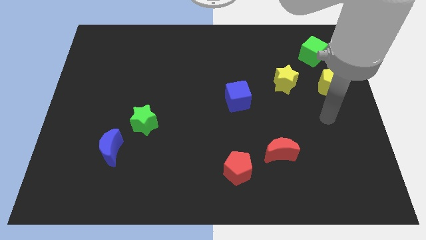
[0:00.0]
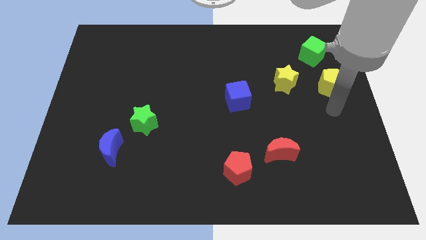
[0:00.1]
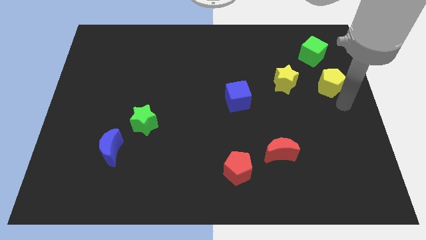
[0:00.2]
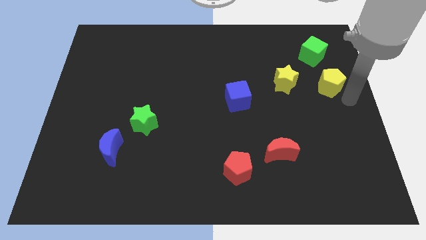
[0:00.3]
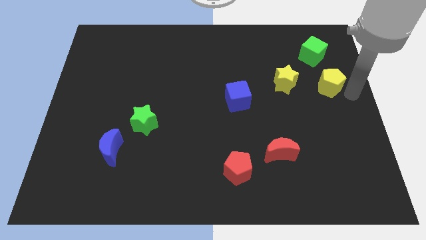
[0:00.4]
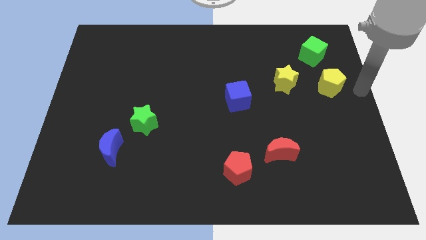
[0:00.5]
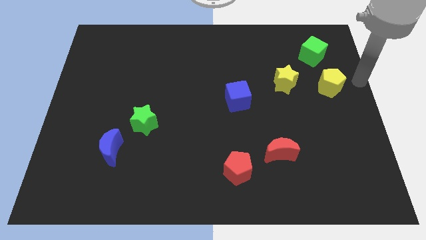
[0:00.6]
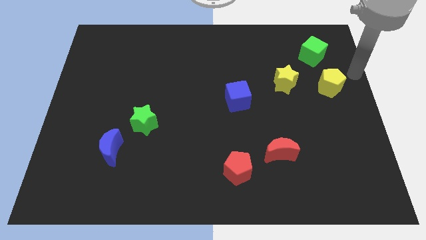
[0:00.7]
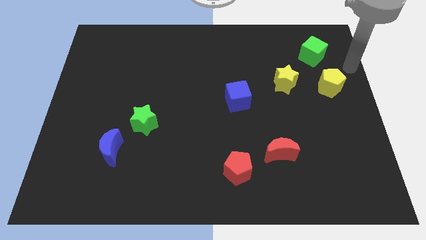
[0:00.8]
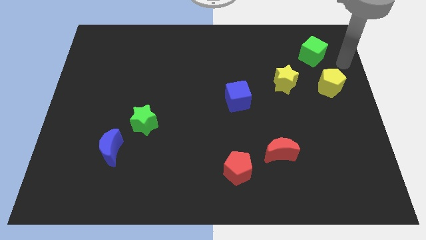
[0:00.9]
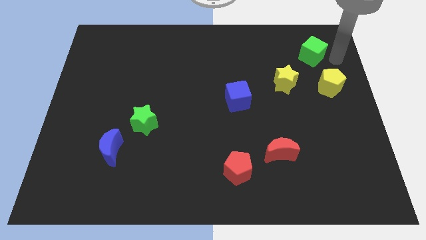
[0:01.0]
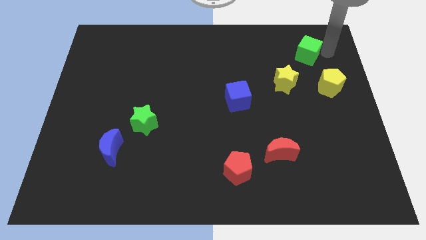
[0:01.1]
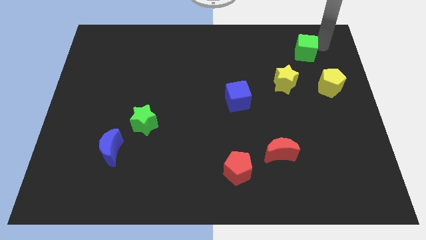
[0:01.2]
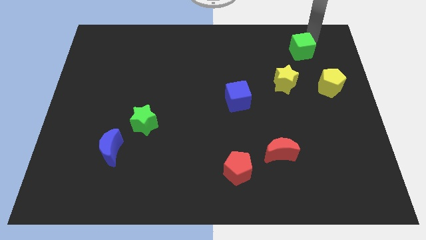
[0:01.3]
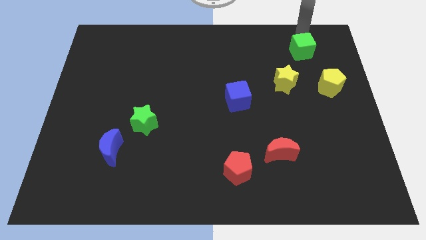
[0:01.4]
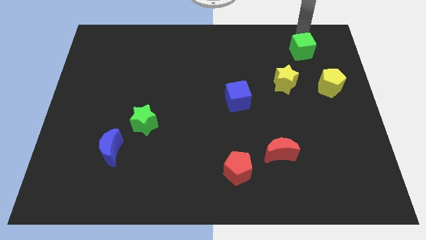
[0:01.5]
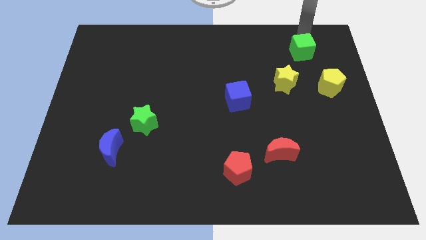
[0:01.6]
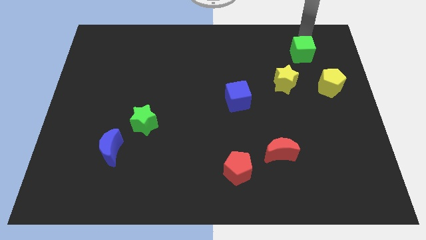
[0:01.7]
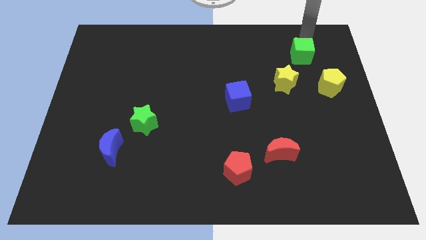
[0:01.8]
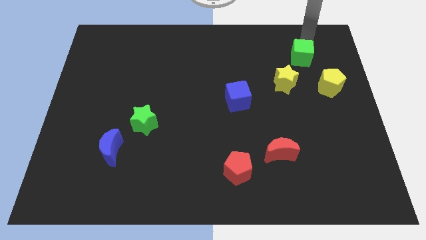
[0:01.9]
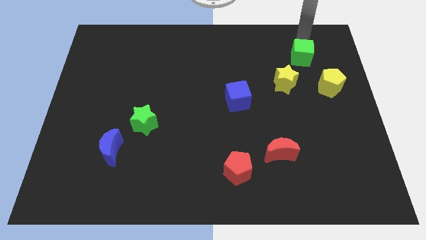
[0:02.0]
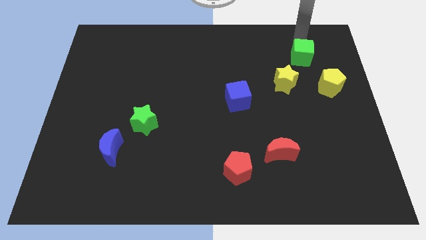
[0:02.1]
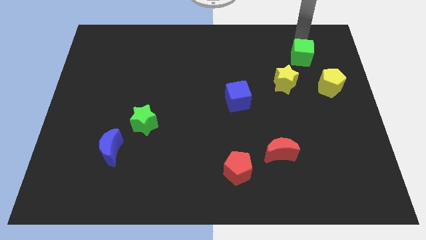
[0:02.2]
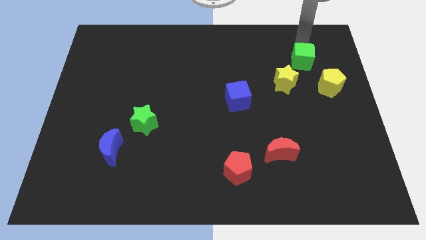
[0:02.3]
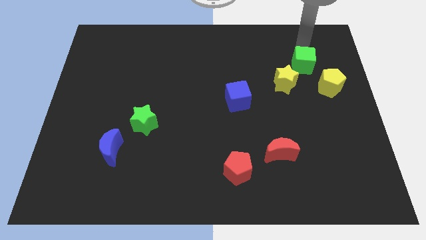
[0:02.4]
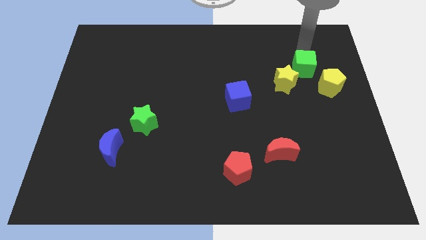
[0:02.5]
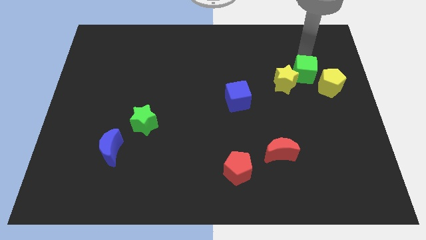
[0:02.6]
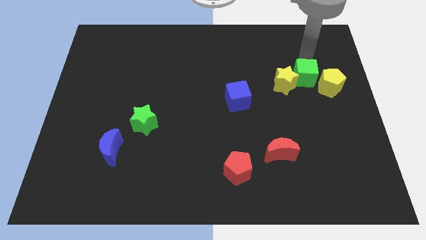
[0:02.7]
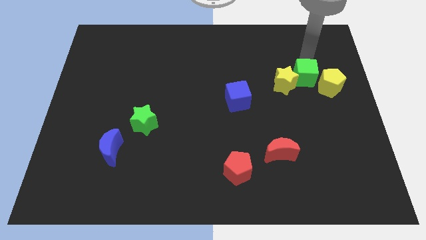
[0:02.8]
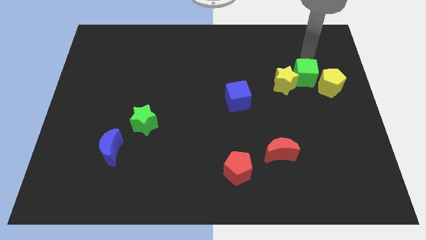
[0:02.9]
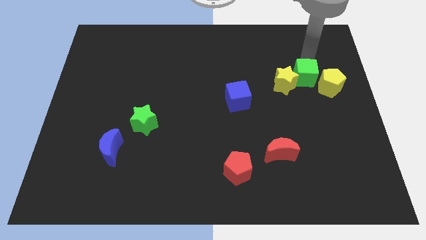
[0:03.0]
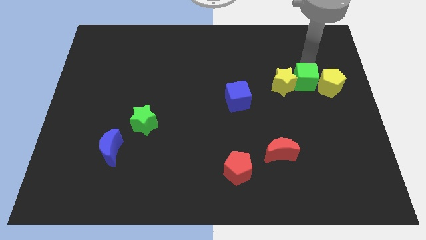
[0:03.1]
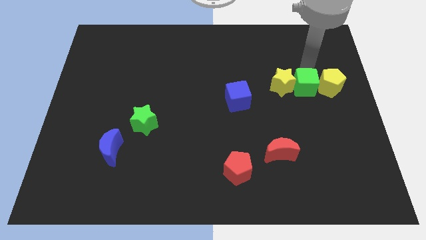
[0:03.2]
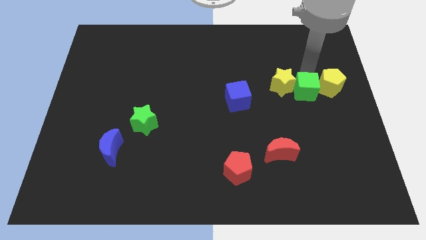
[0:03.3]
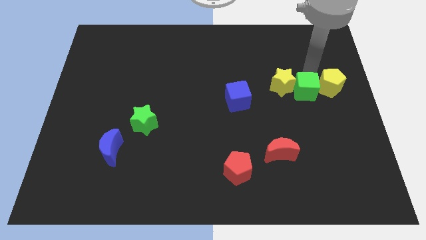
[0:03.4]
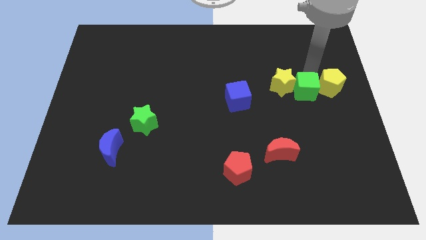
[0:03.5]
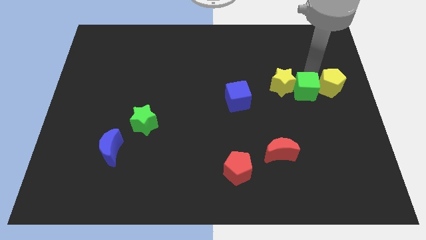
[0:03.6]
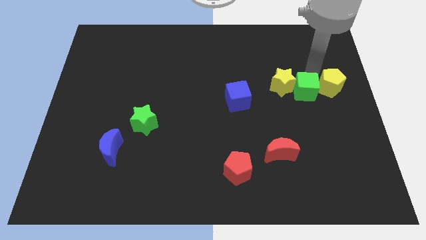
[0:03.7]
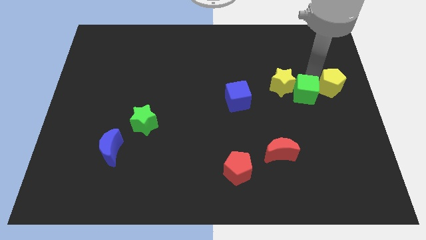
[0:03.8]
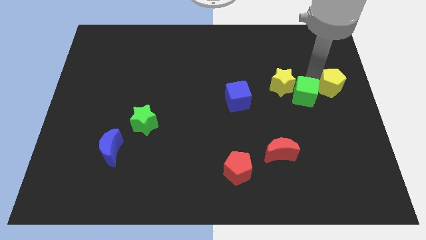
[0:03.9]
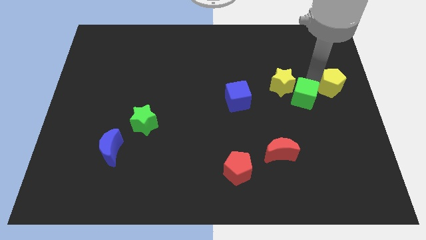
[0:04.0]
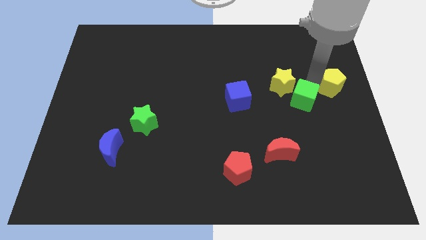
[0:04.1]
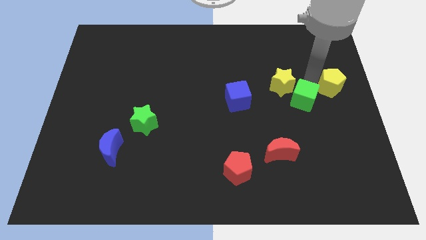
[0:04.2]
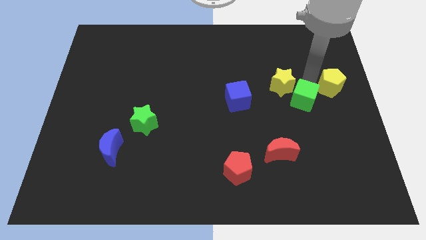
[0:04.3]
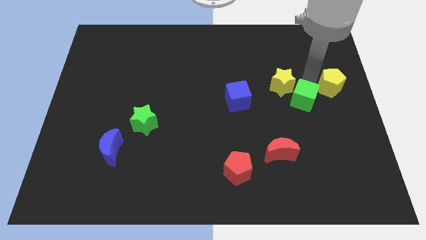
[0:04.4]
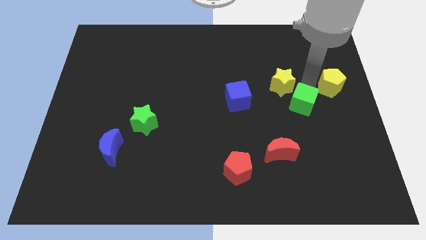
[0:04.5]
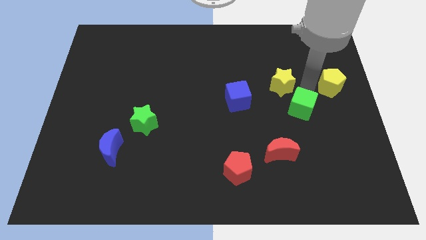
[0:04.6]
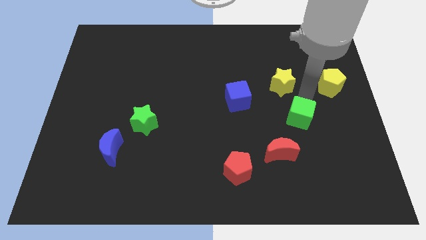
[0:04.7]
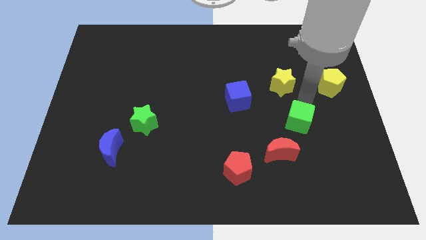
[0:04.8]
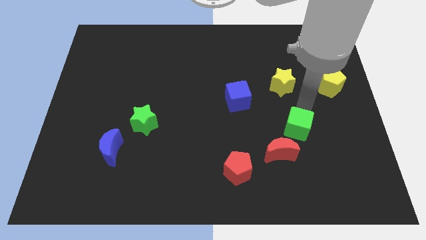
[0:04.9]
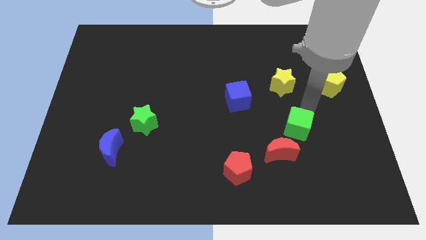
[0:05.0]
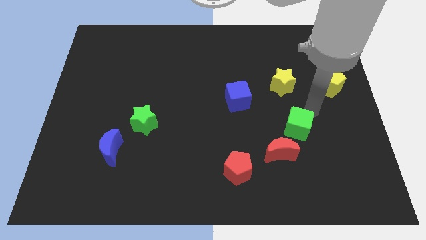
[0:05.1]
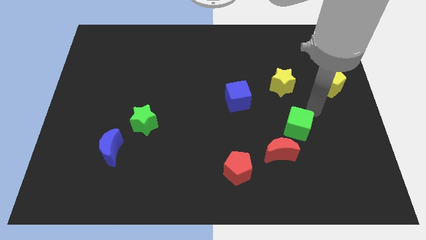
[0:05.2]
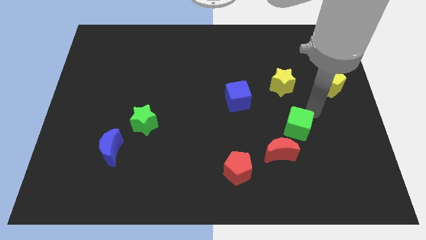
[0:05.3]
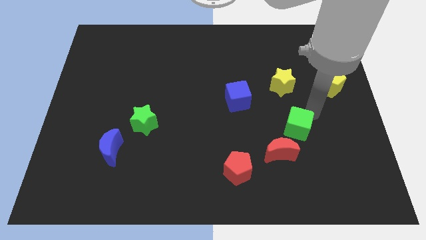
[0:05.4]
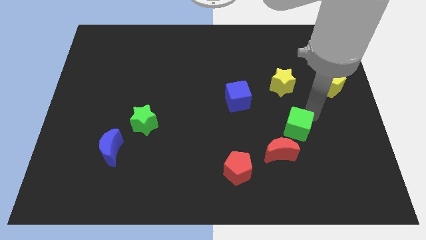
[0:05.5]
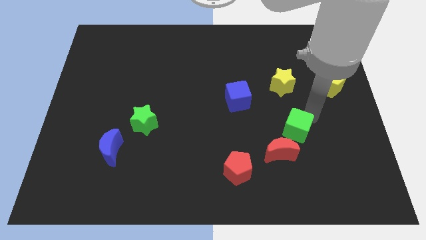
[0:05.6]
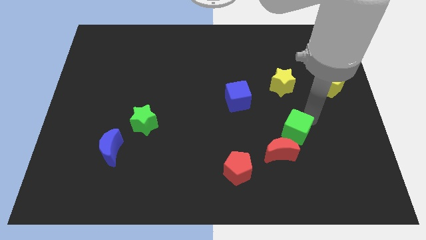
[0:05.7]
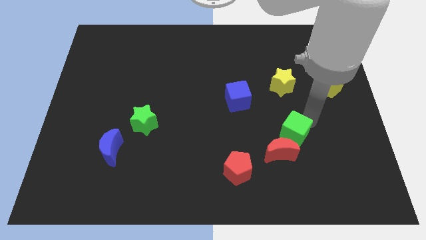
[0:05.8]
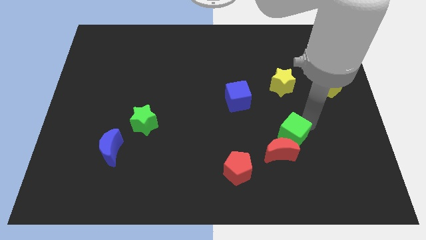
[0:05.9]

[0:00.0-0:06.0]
move the green cube close to the red moon

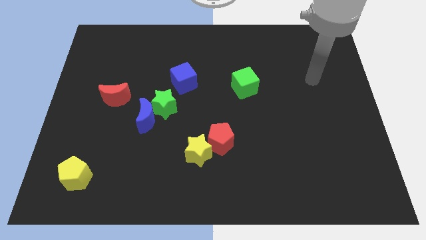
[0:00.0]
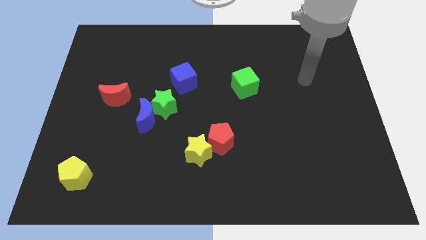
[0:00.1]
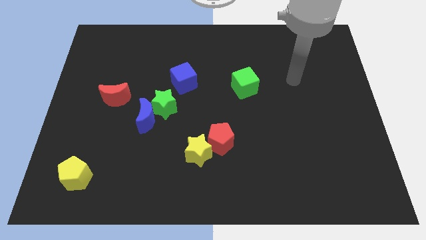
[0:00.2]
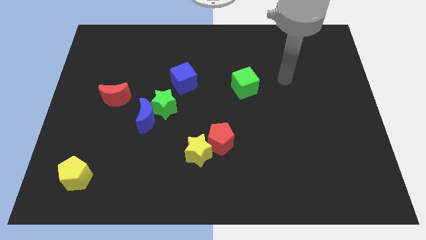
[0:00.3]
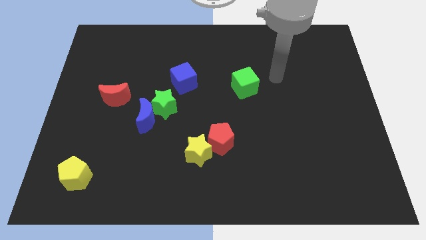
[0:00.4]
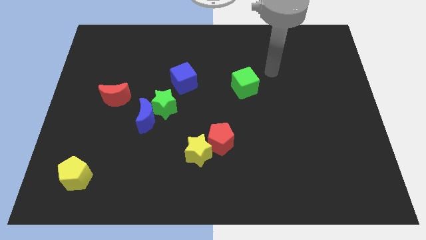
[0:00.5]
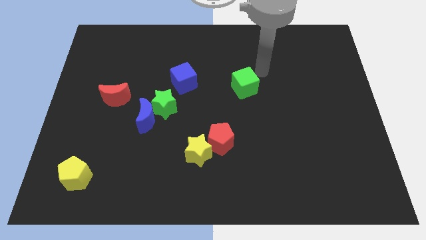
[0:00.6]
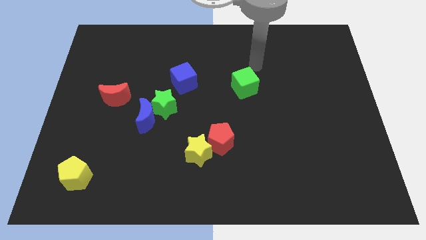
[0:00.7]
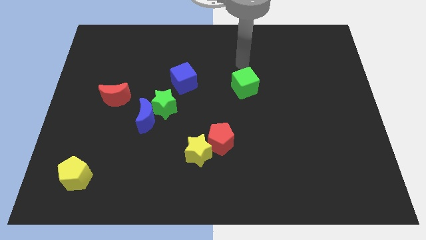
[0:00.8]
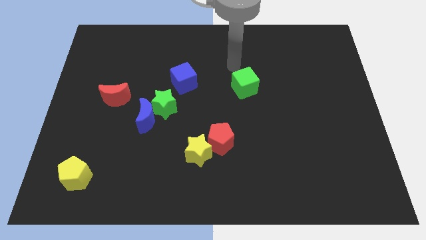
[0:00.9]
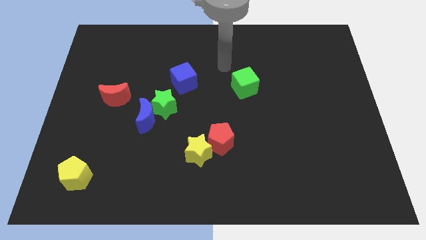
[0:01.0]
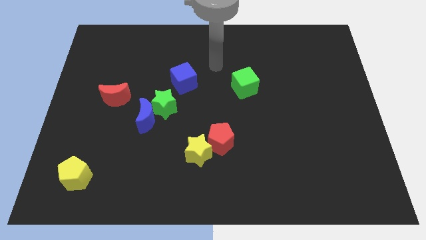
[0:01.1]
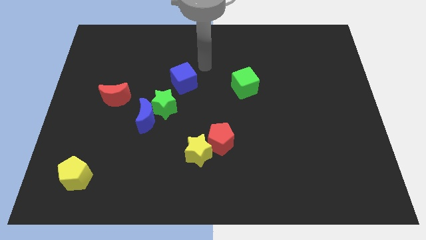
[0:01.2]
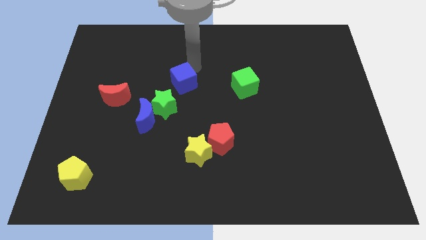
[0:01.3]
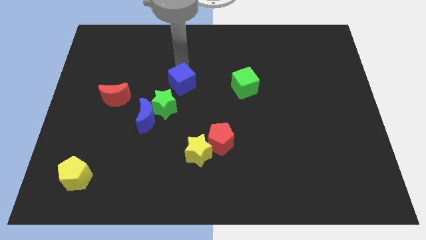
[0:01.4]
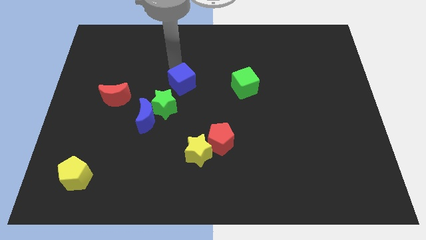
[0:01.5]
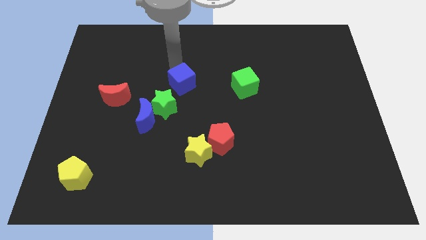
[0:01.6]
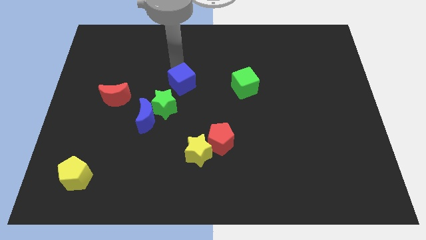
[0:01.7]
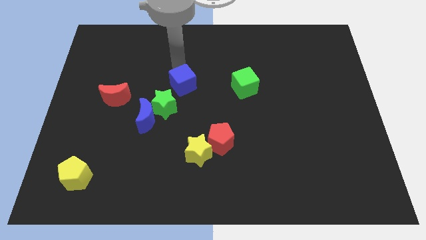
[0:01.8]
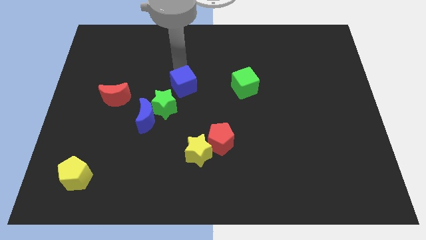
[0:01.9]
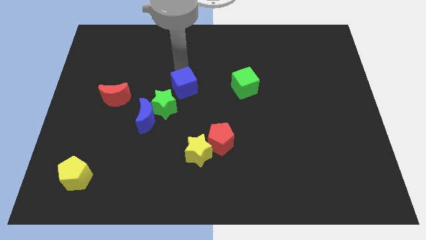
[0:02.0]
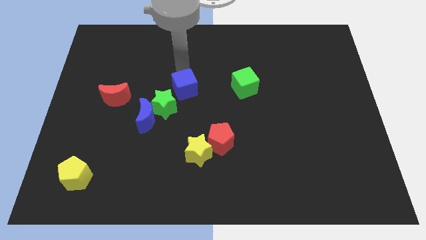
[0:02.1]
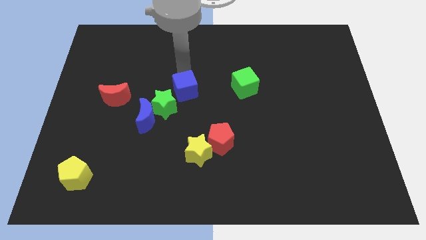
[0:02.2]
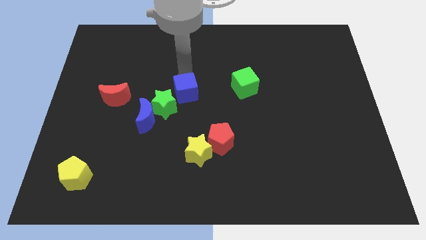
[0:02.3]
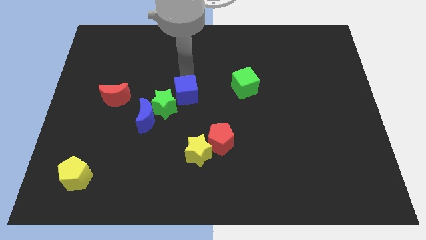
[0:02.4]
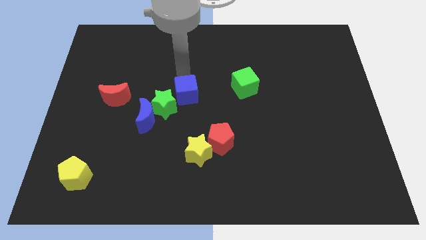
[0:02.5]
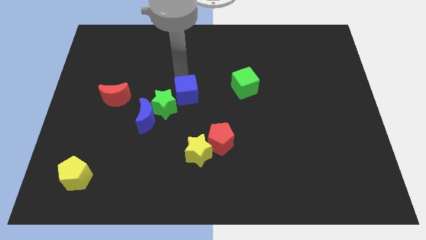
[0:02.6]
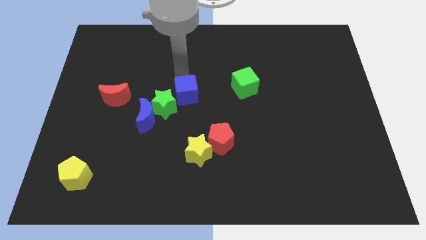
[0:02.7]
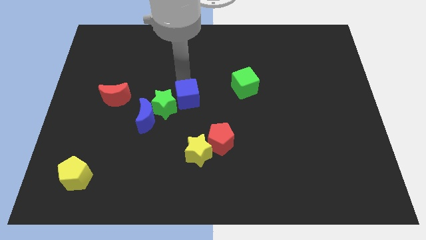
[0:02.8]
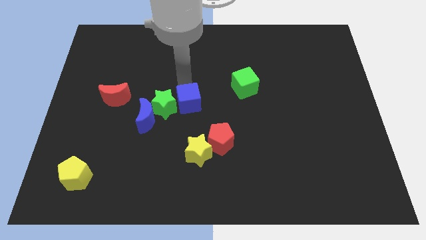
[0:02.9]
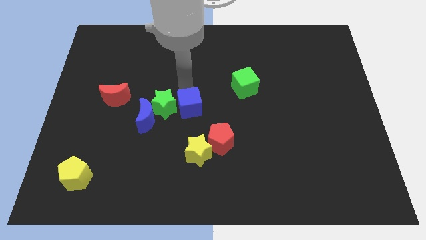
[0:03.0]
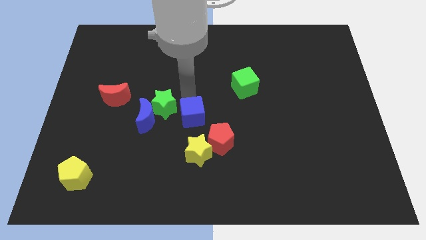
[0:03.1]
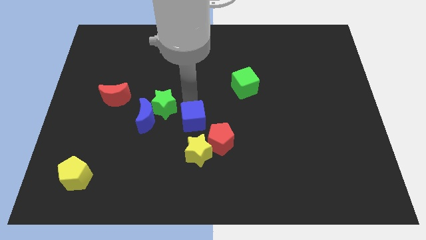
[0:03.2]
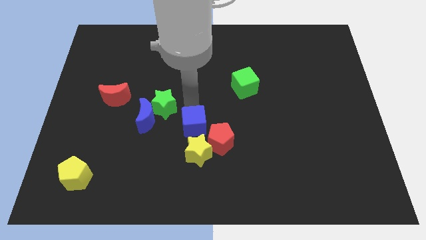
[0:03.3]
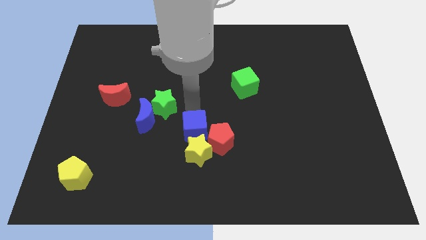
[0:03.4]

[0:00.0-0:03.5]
put the blue cube towards the yellow star
